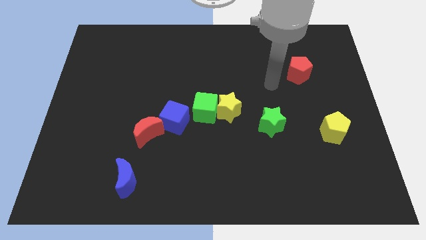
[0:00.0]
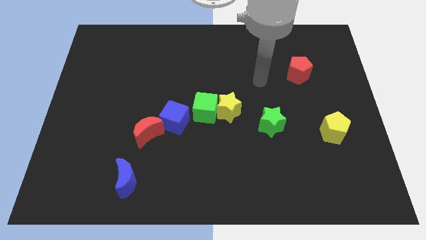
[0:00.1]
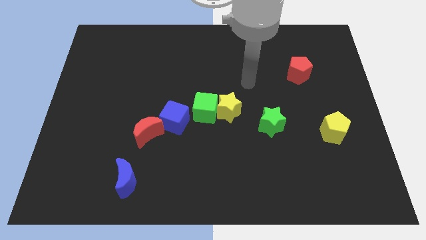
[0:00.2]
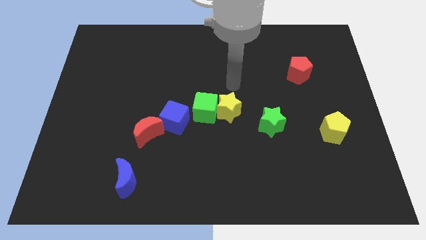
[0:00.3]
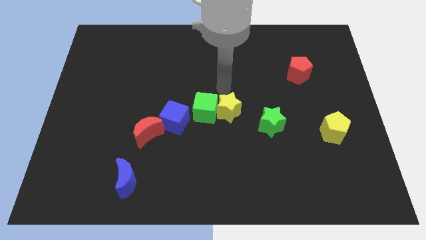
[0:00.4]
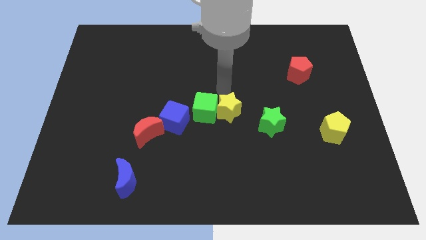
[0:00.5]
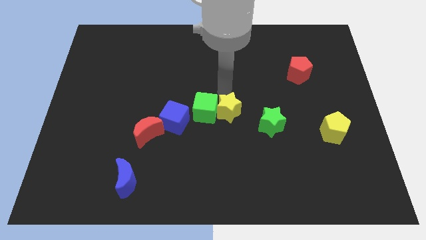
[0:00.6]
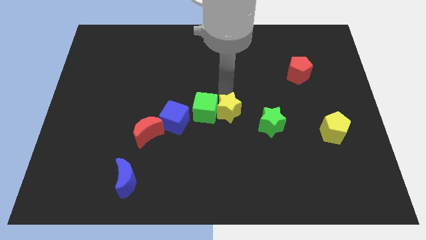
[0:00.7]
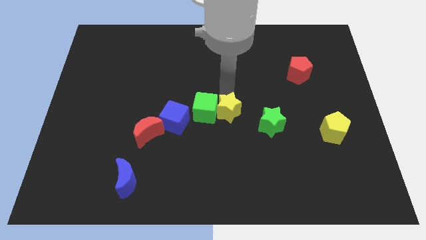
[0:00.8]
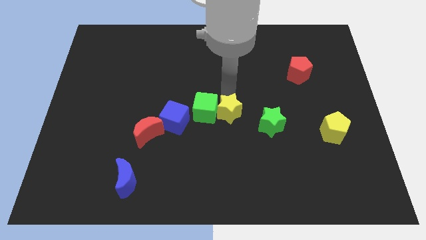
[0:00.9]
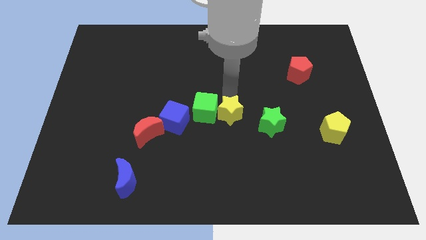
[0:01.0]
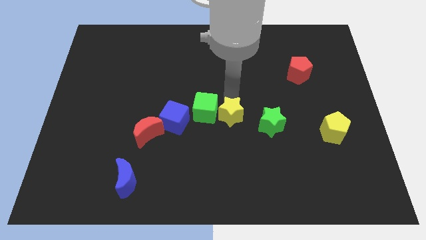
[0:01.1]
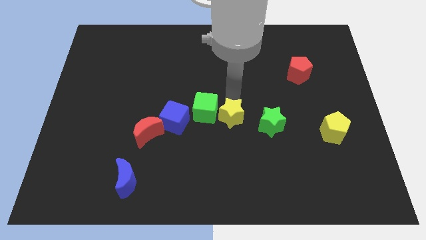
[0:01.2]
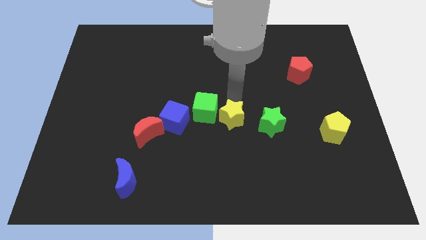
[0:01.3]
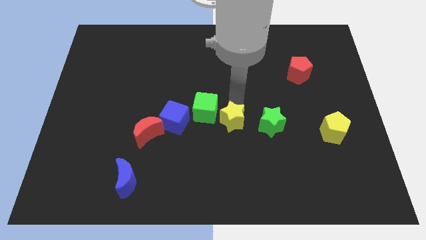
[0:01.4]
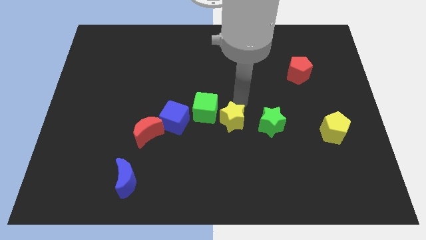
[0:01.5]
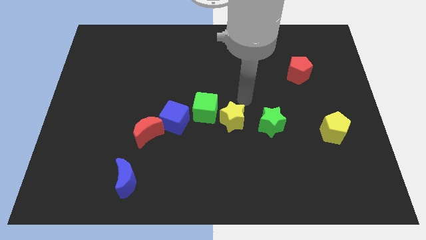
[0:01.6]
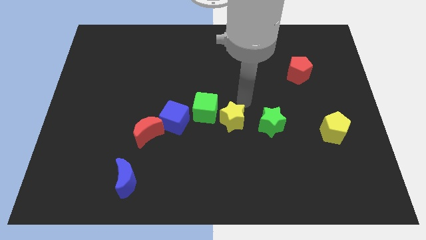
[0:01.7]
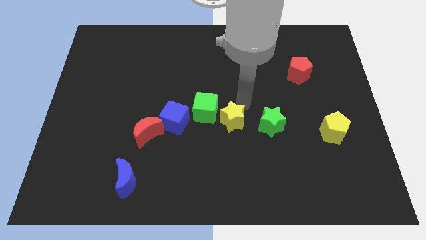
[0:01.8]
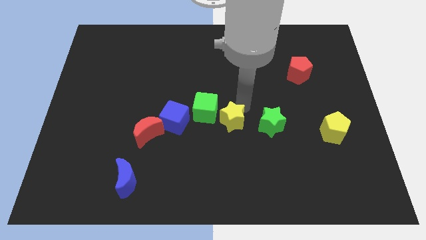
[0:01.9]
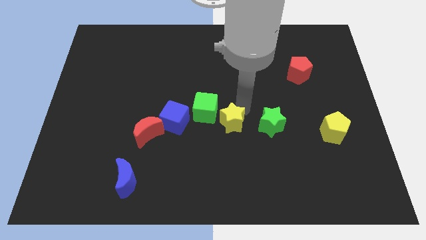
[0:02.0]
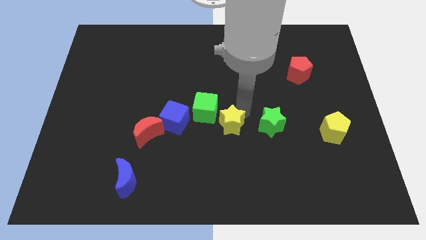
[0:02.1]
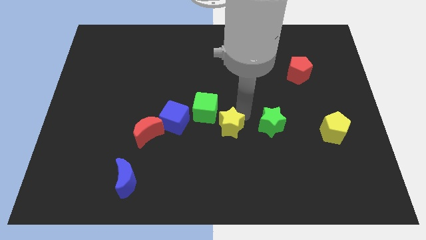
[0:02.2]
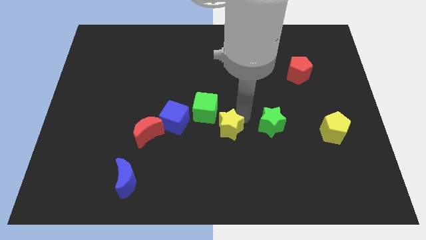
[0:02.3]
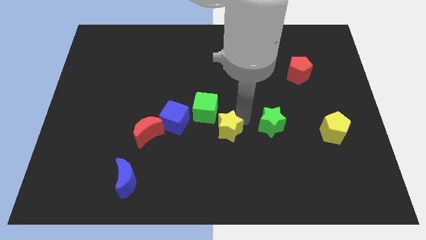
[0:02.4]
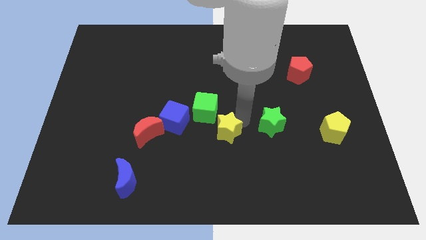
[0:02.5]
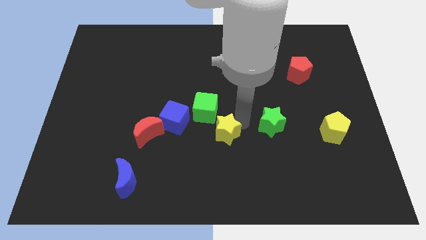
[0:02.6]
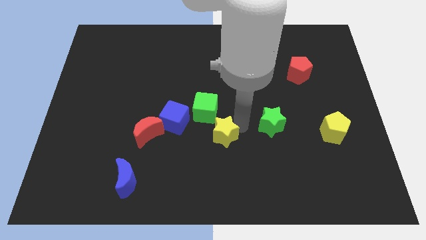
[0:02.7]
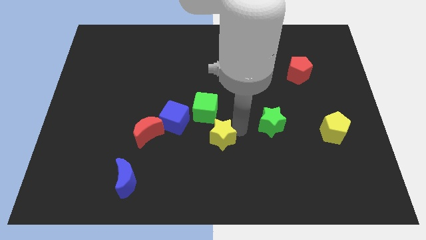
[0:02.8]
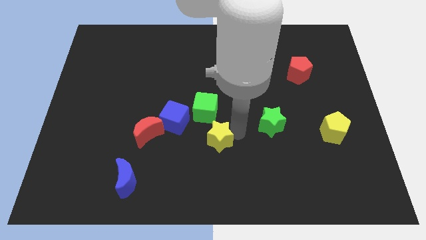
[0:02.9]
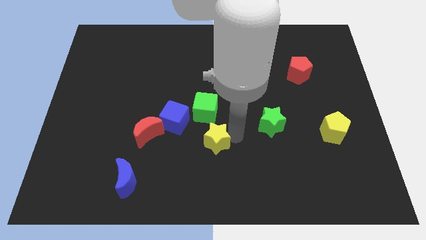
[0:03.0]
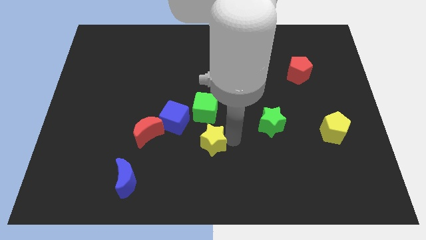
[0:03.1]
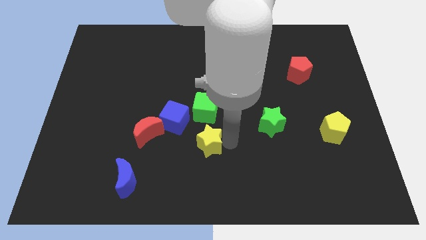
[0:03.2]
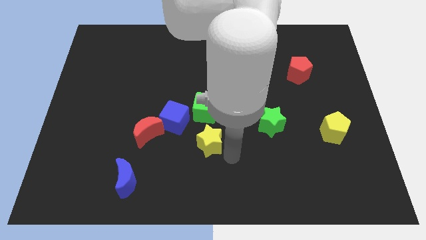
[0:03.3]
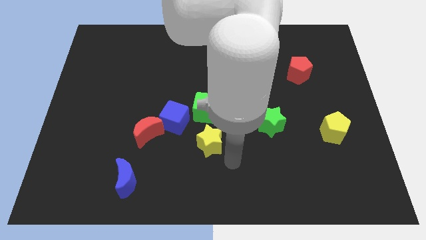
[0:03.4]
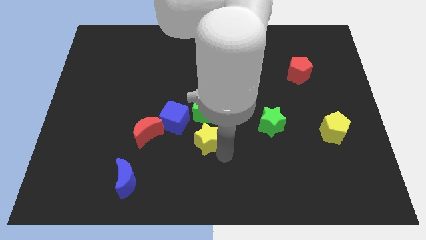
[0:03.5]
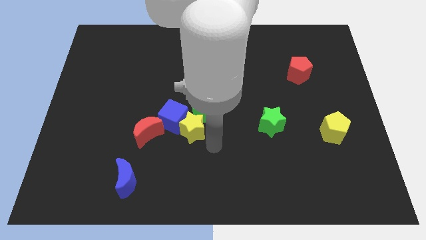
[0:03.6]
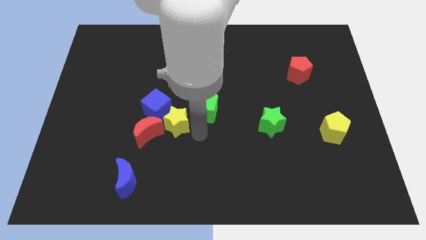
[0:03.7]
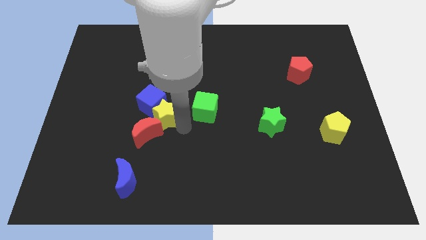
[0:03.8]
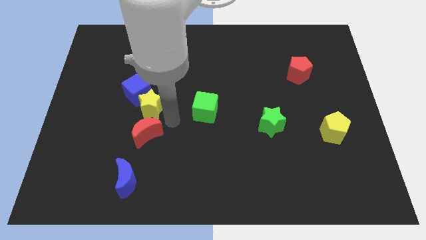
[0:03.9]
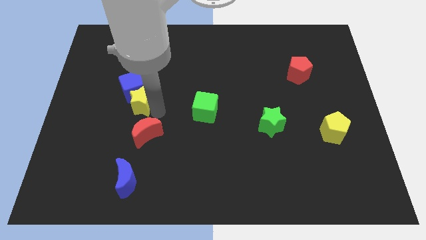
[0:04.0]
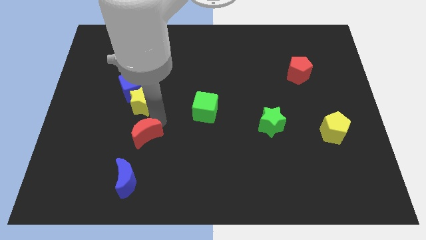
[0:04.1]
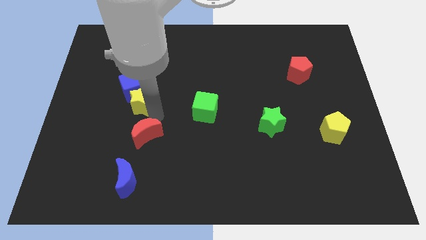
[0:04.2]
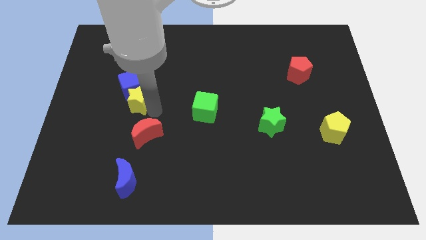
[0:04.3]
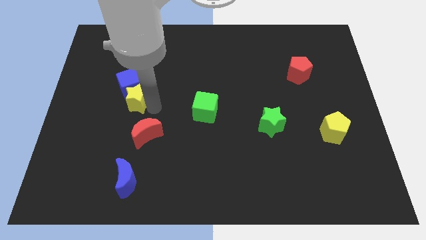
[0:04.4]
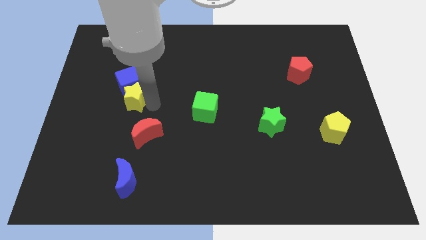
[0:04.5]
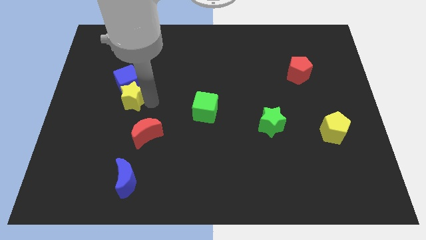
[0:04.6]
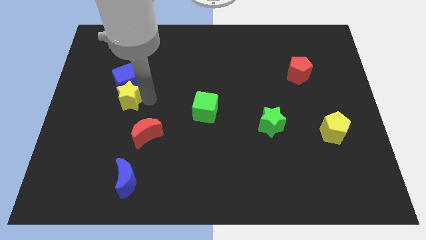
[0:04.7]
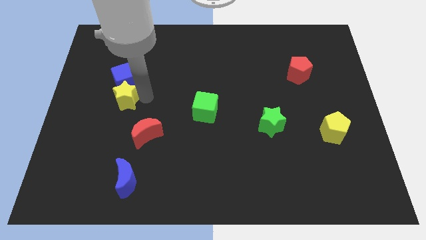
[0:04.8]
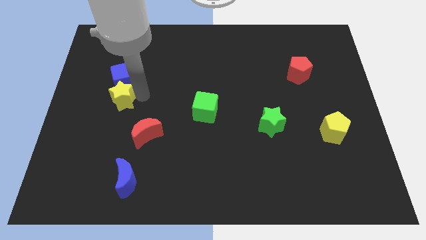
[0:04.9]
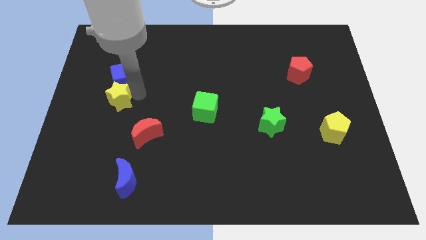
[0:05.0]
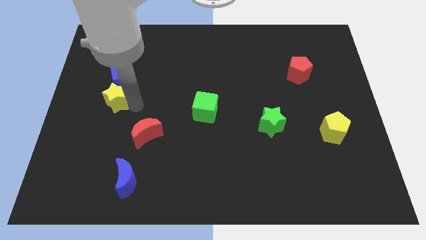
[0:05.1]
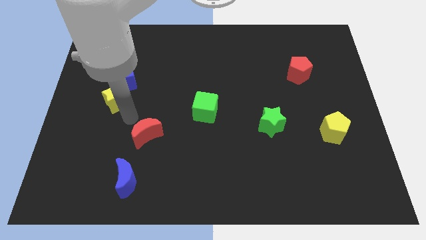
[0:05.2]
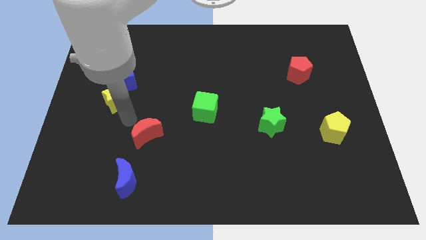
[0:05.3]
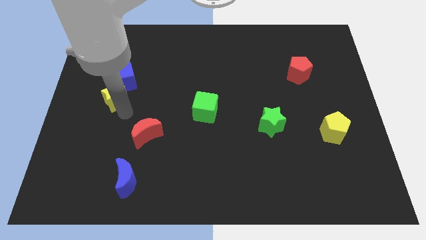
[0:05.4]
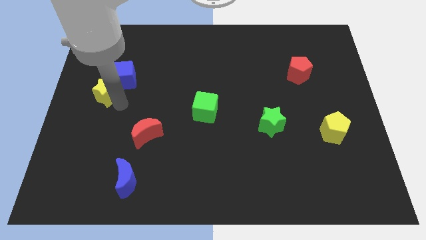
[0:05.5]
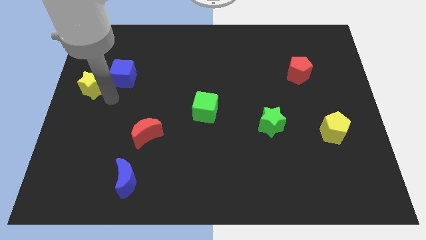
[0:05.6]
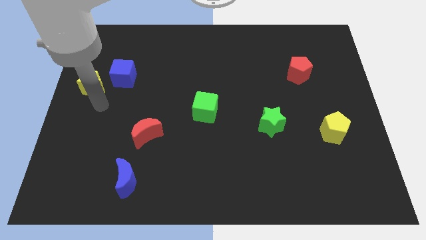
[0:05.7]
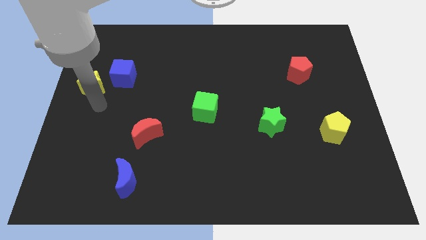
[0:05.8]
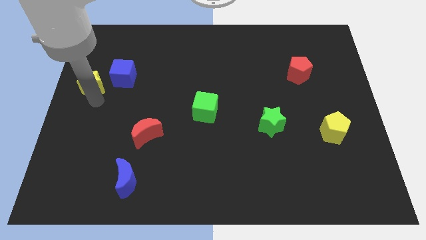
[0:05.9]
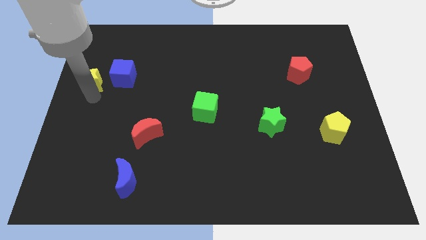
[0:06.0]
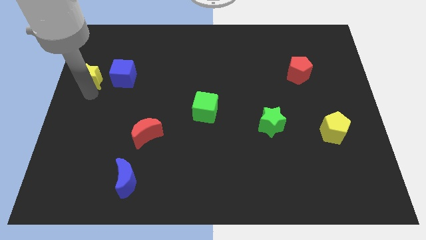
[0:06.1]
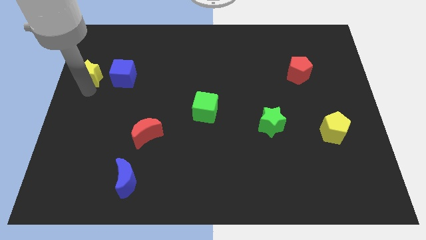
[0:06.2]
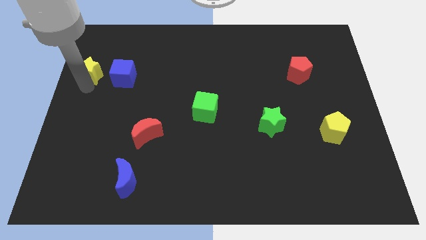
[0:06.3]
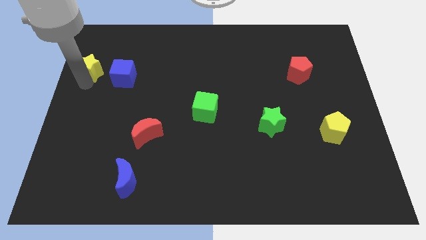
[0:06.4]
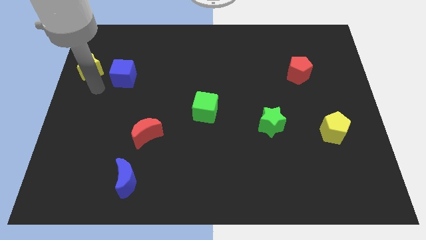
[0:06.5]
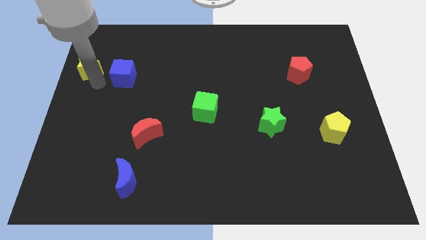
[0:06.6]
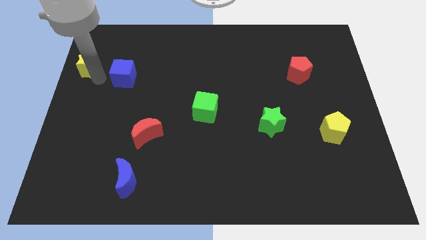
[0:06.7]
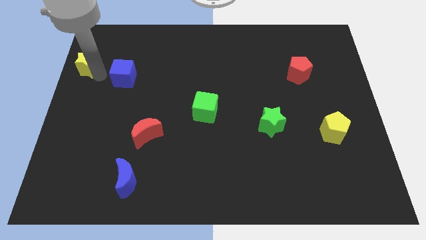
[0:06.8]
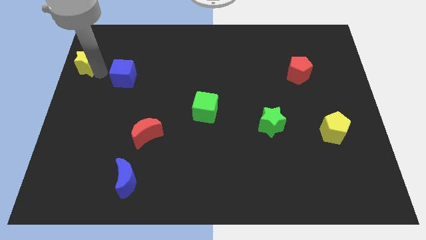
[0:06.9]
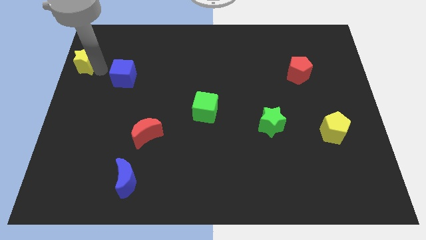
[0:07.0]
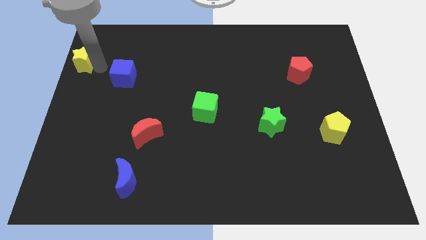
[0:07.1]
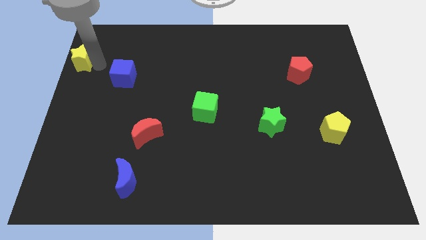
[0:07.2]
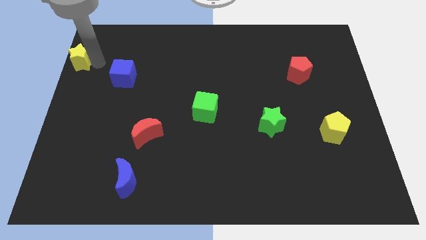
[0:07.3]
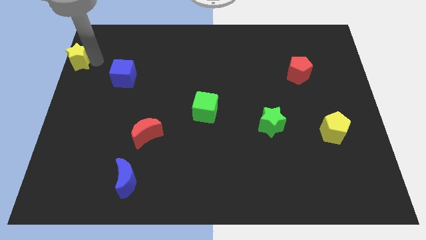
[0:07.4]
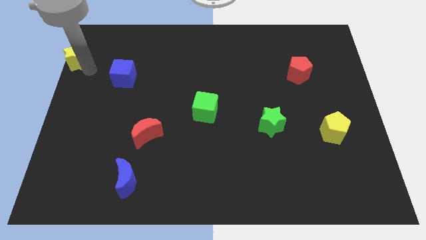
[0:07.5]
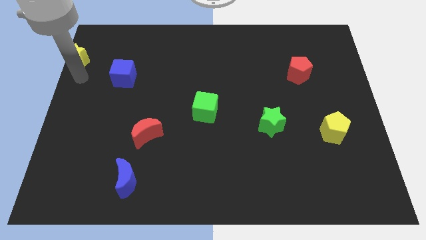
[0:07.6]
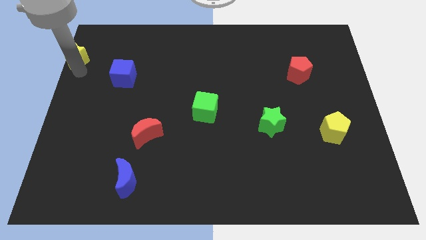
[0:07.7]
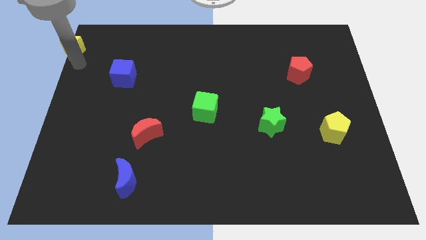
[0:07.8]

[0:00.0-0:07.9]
put the yellow star to the top left of the board
